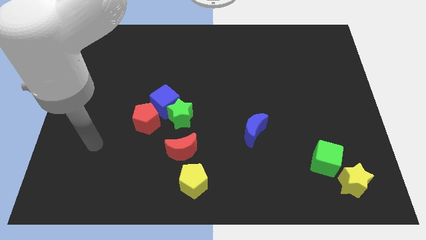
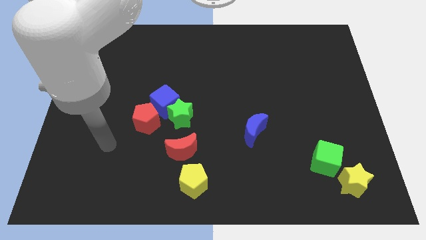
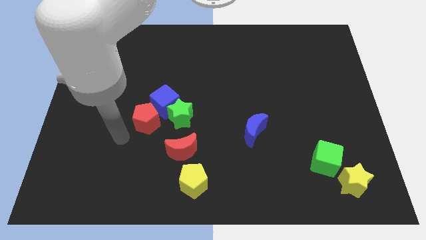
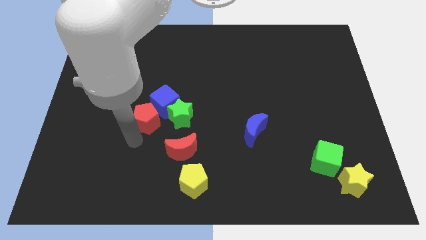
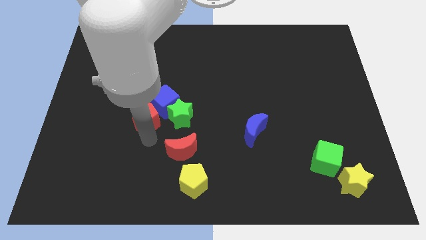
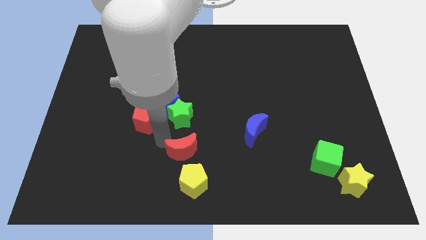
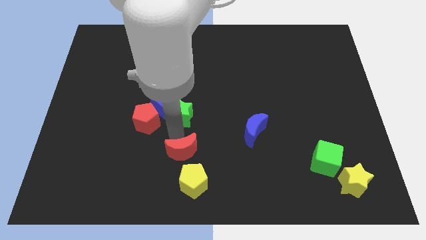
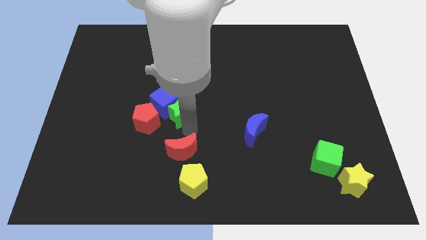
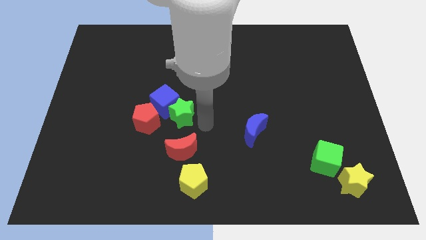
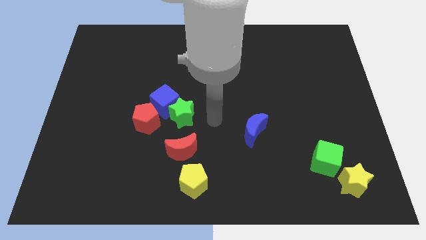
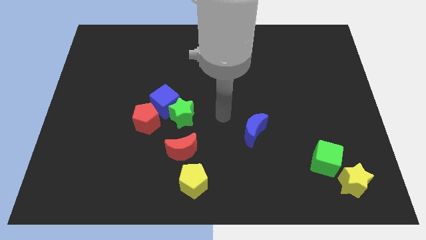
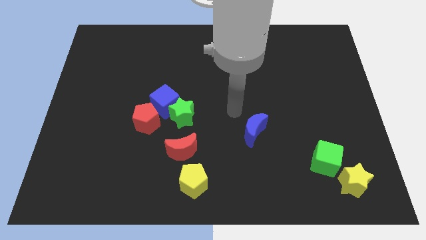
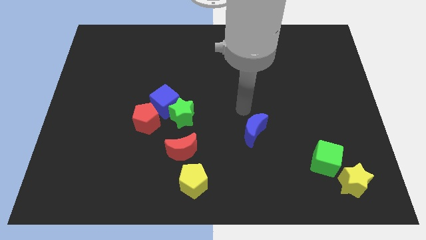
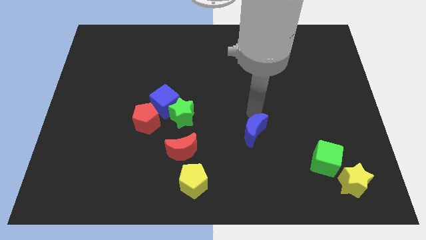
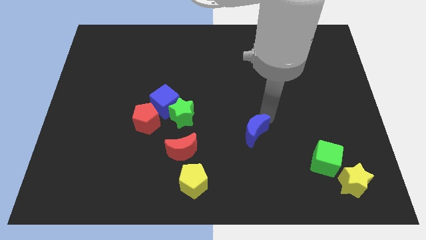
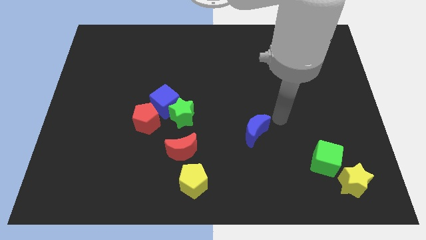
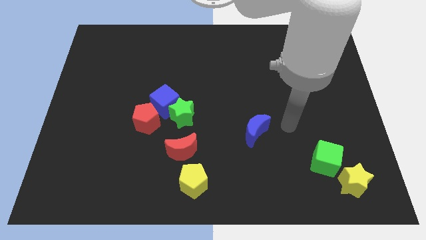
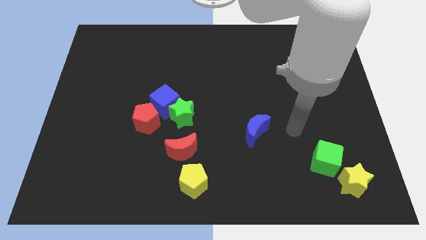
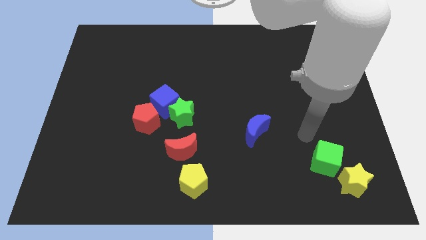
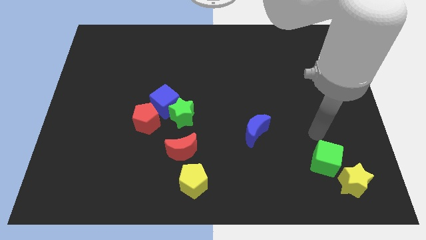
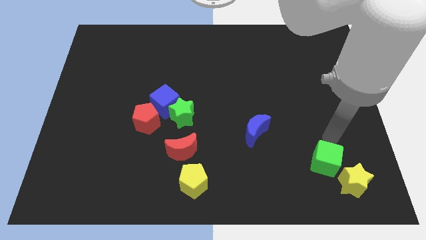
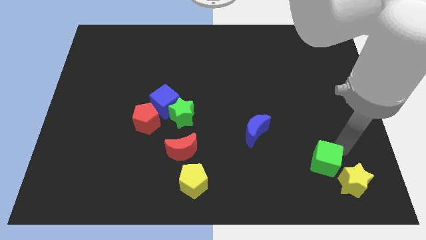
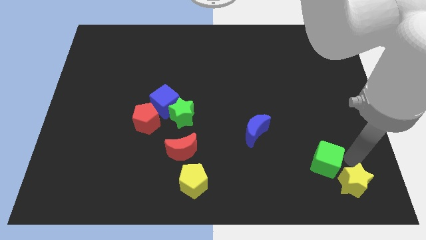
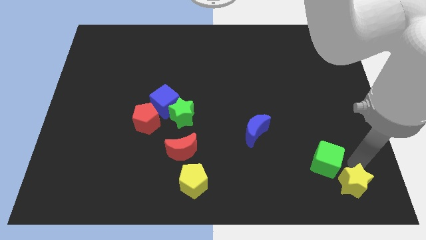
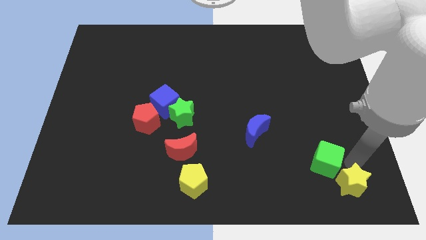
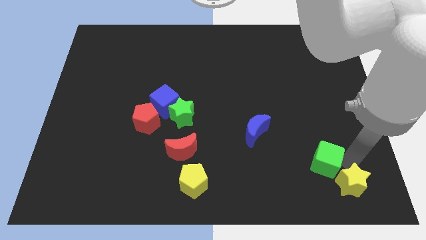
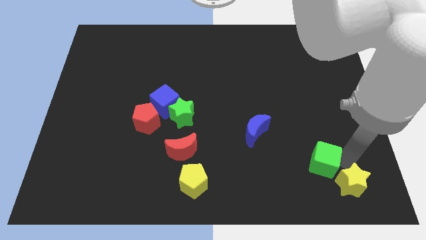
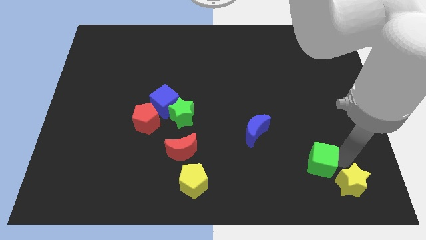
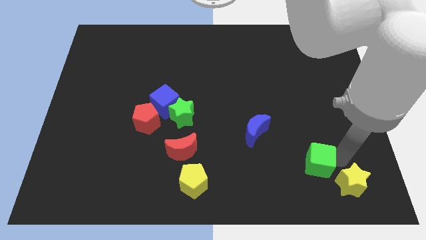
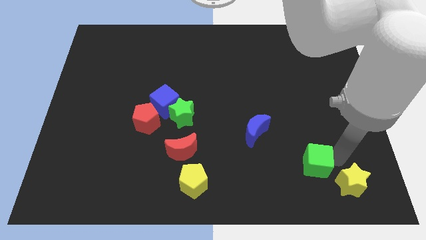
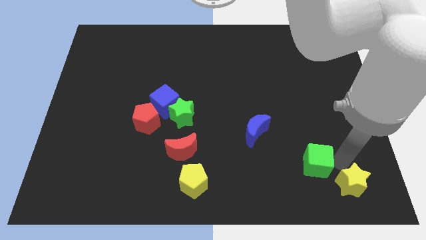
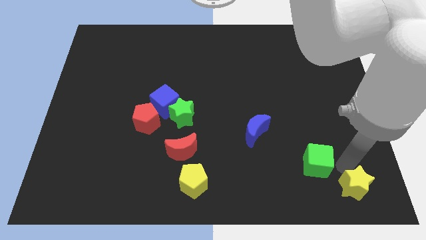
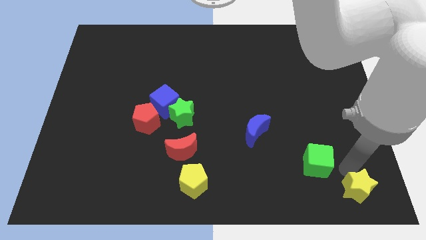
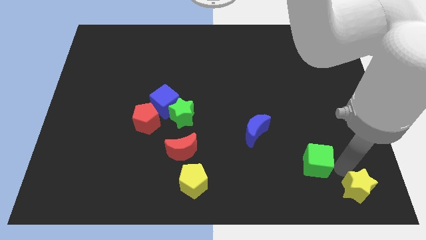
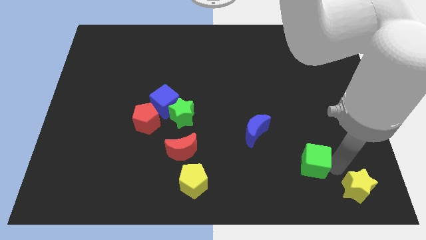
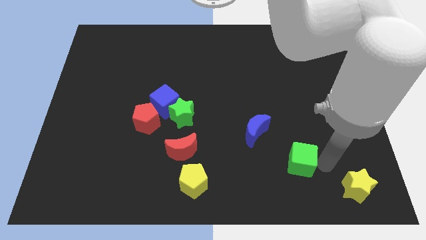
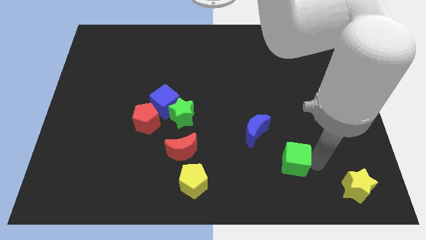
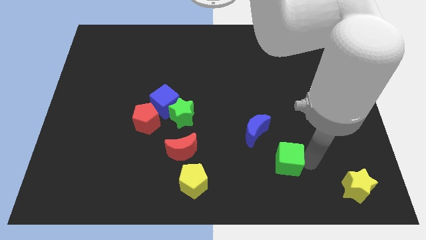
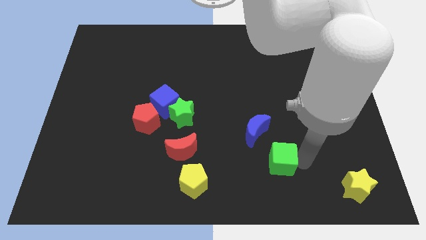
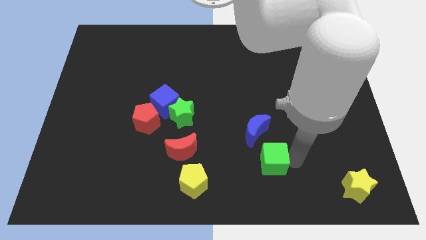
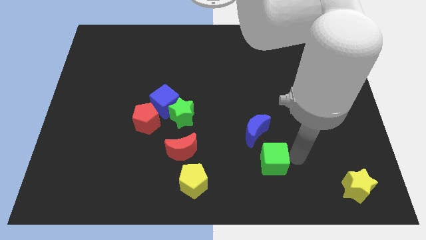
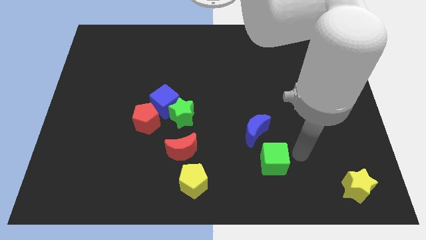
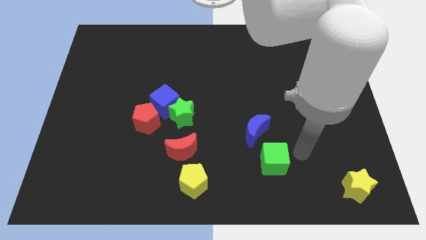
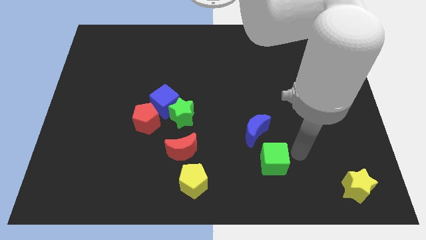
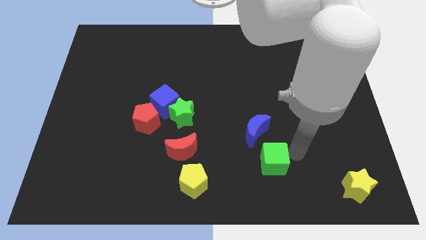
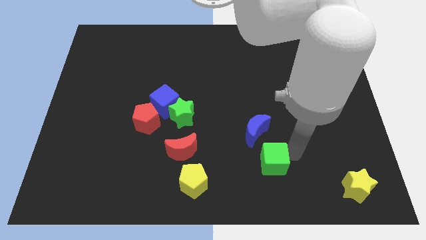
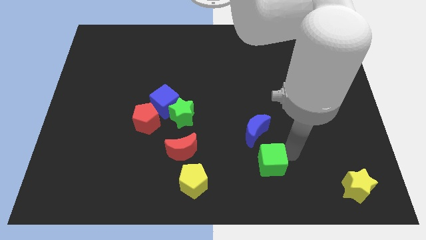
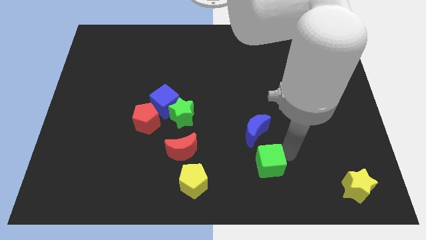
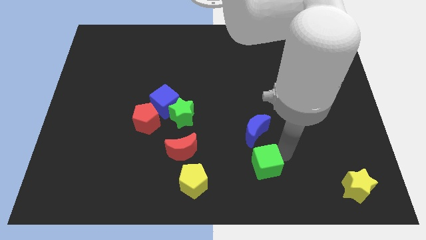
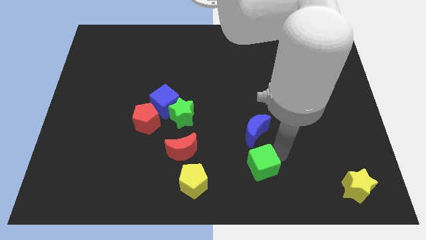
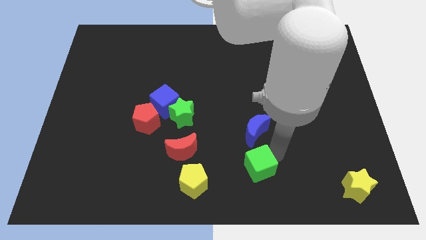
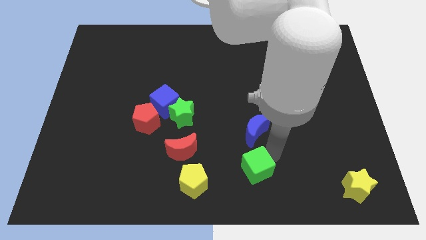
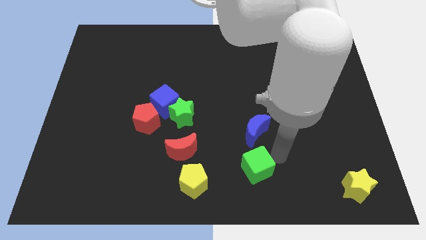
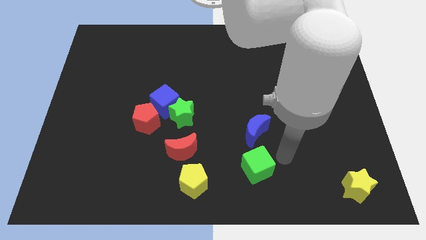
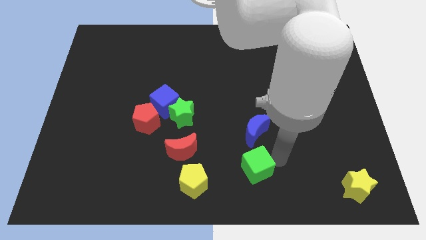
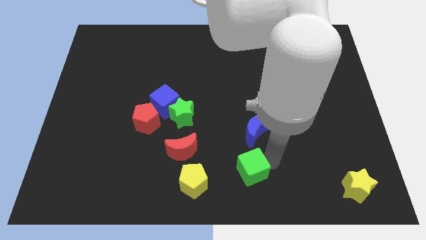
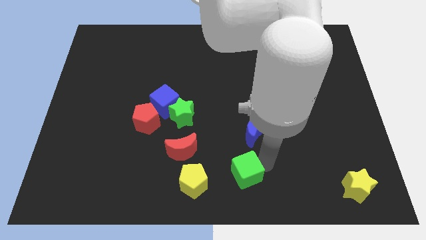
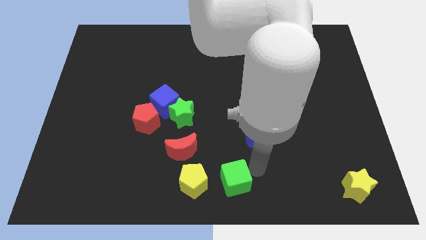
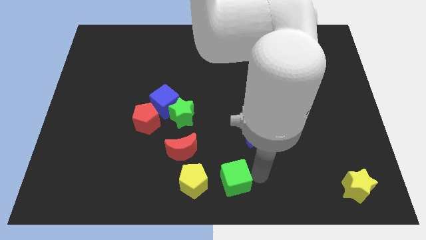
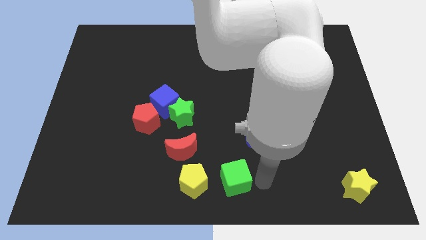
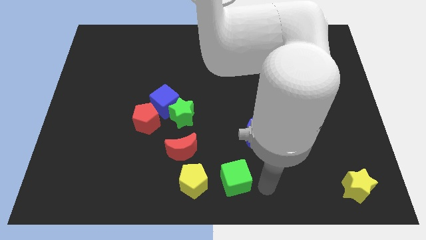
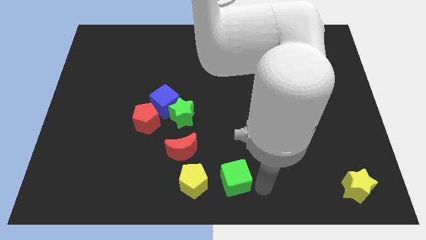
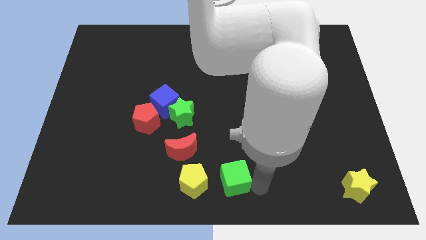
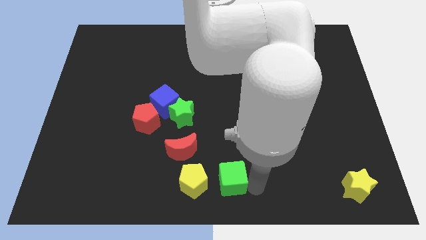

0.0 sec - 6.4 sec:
put the green cube diagonally down and to the right of the red moon

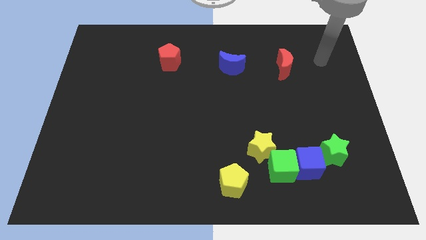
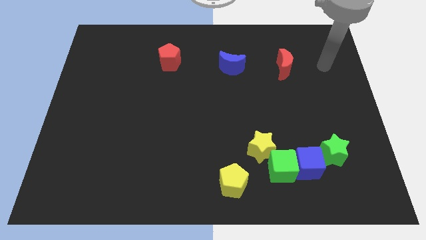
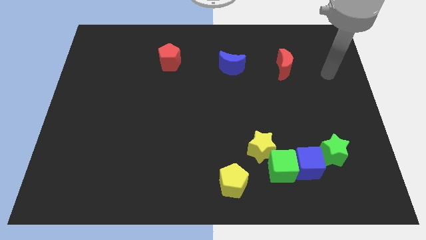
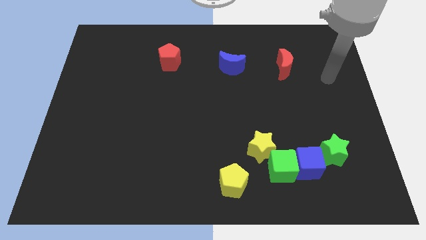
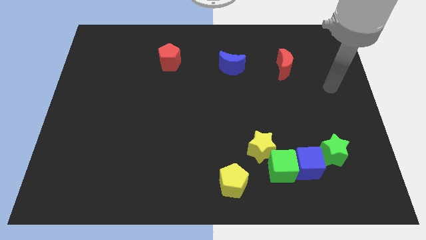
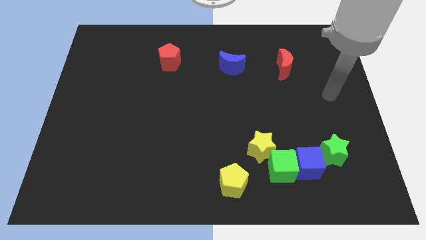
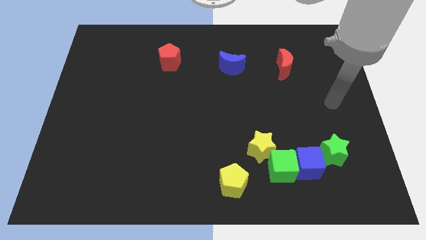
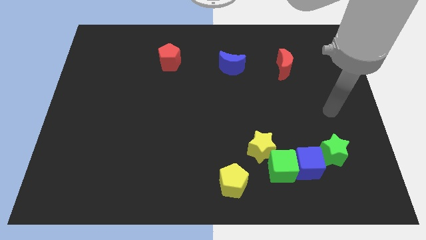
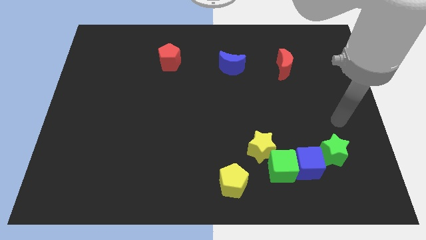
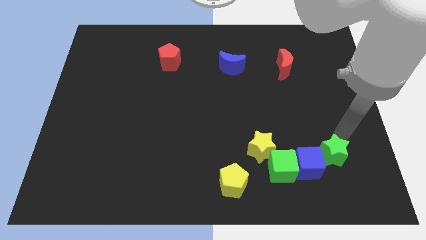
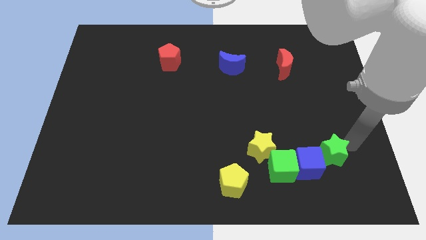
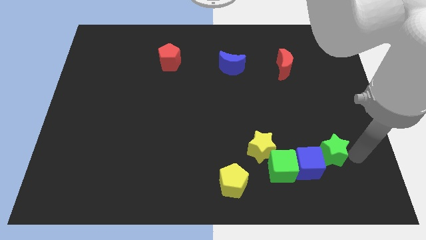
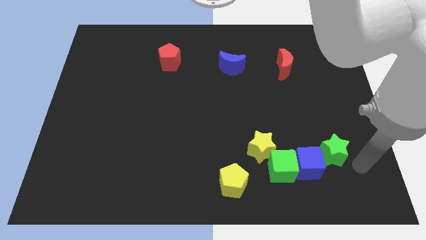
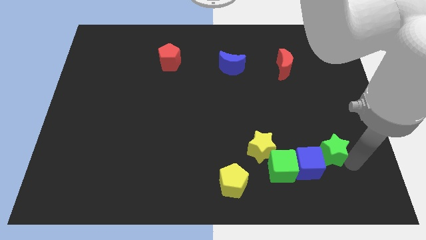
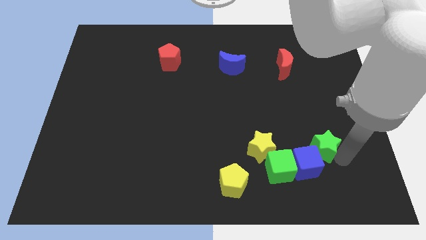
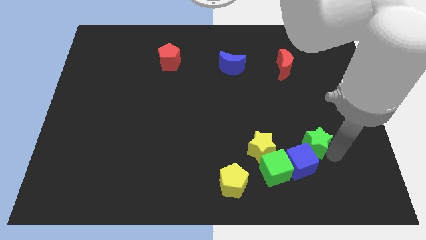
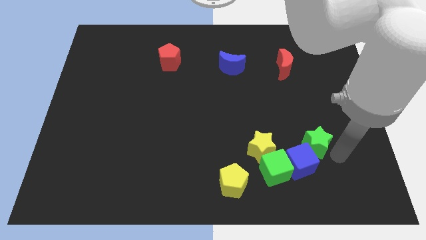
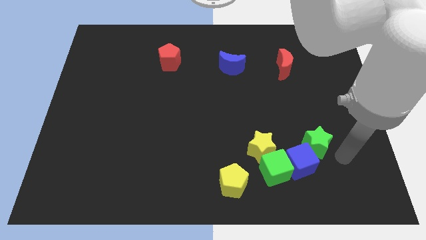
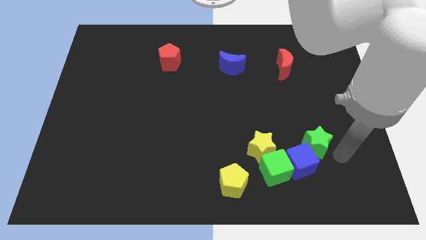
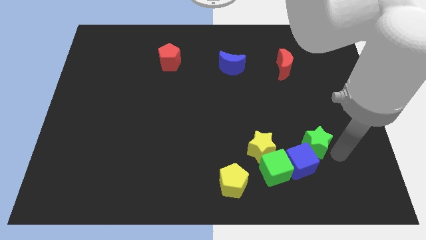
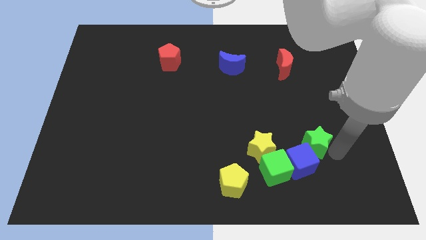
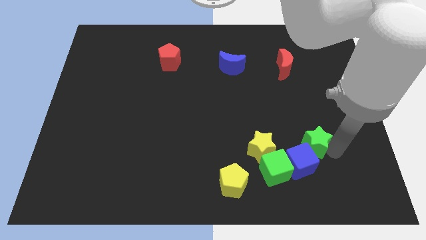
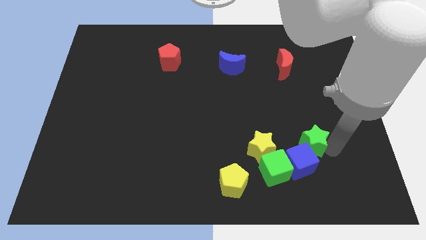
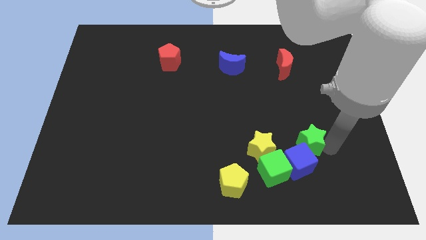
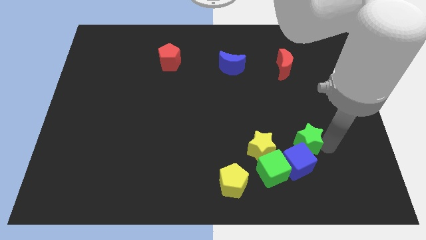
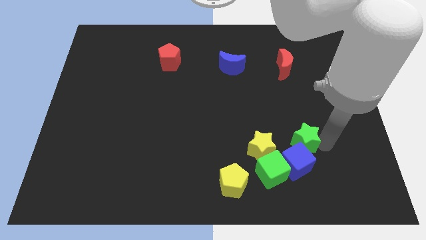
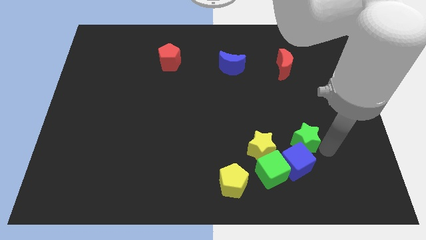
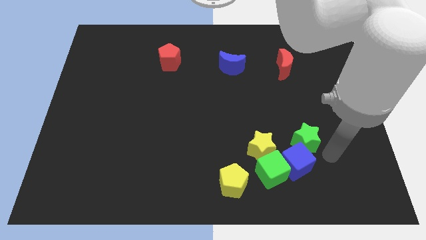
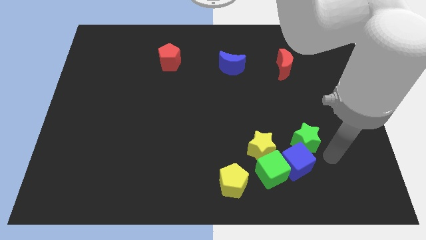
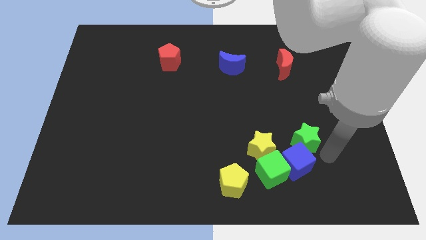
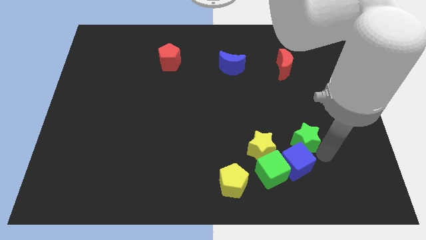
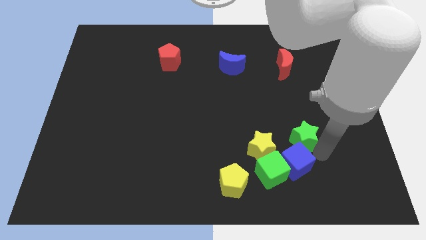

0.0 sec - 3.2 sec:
put the green star diagonally up and to the right of the yellow star
